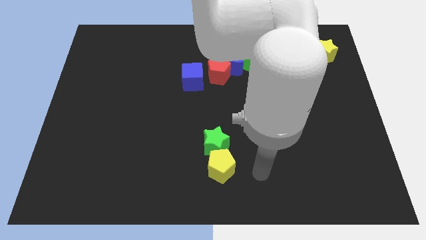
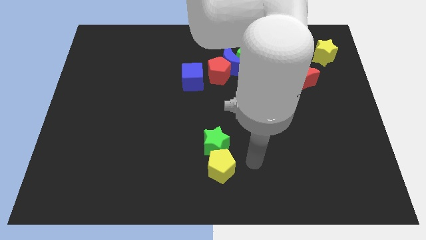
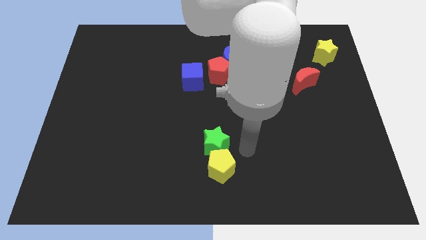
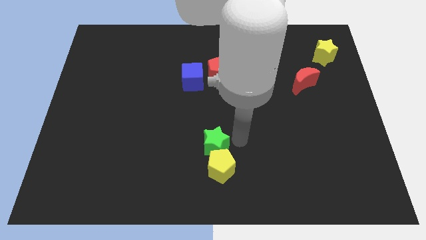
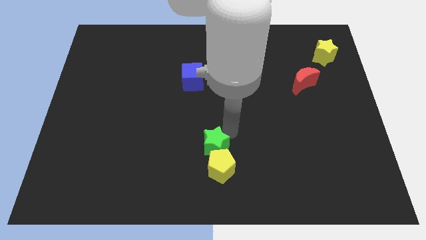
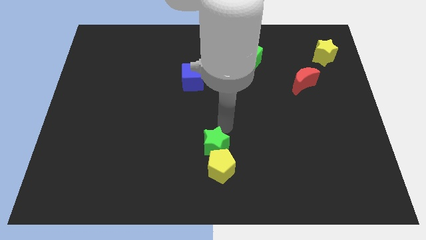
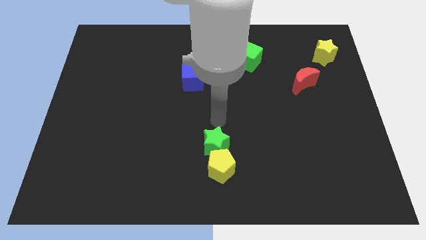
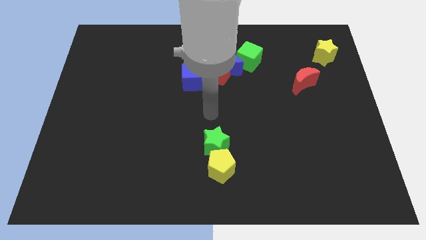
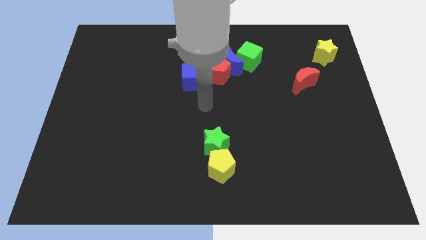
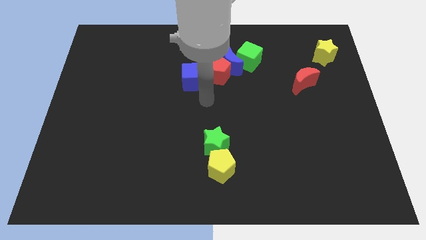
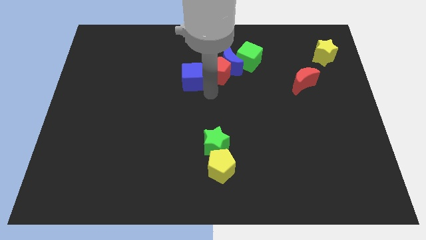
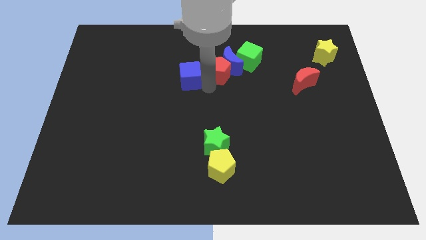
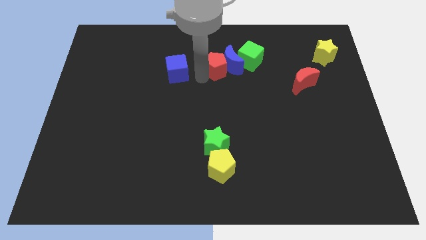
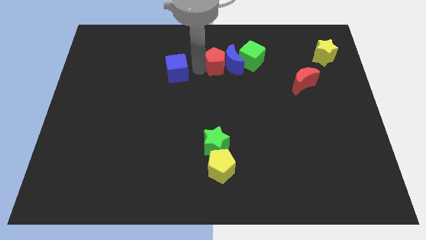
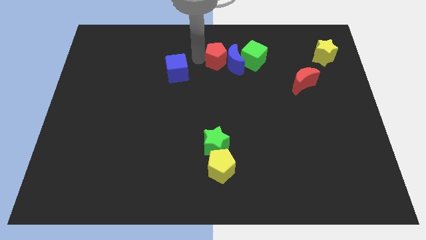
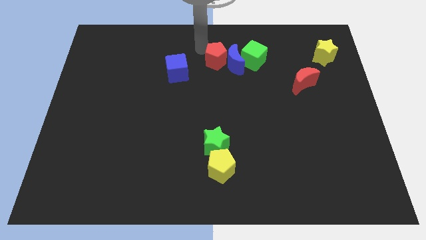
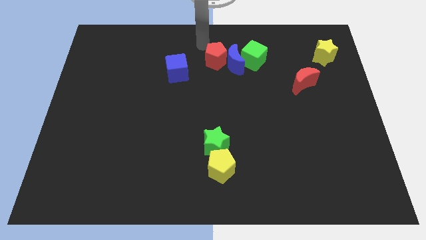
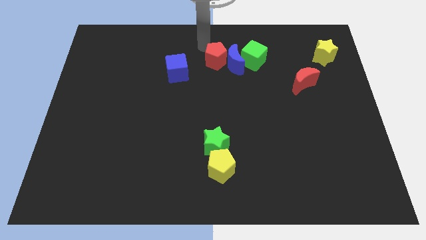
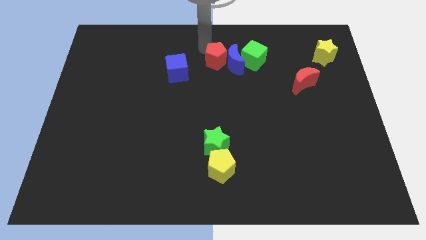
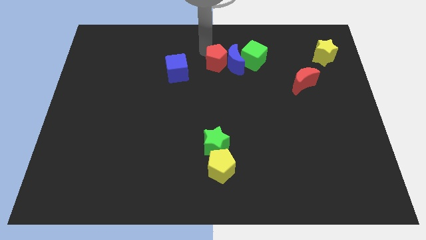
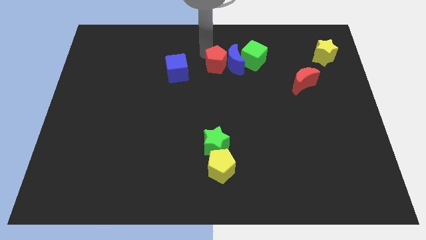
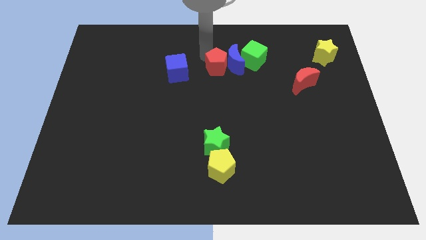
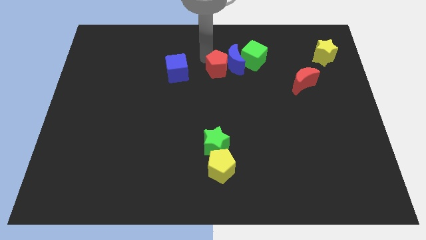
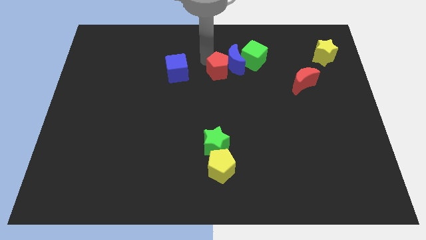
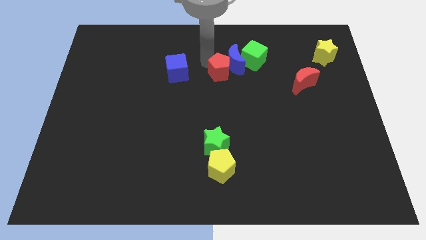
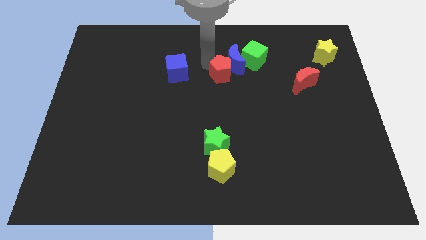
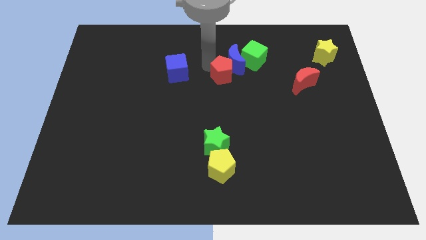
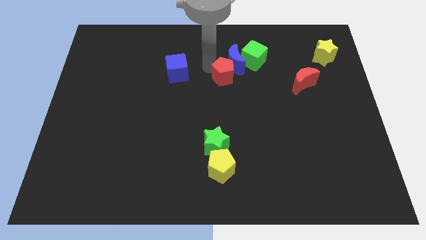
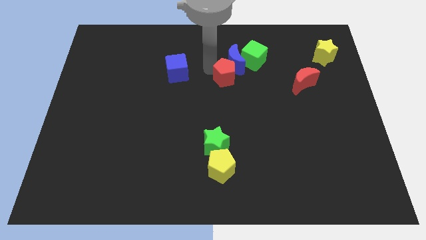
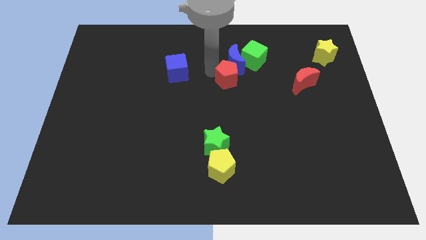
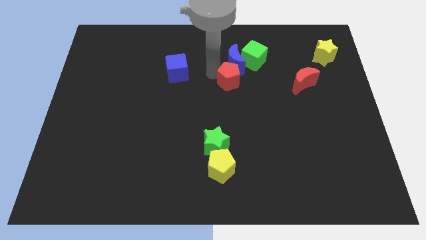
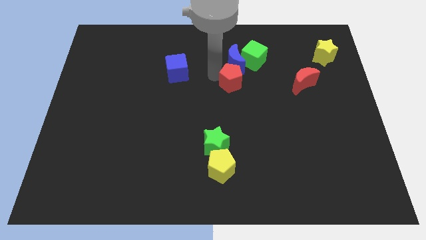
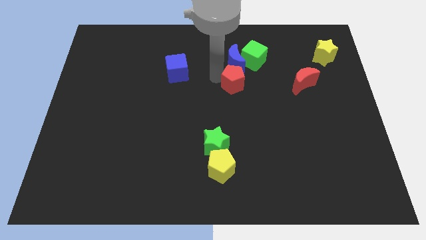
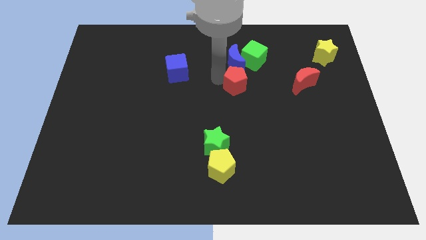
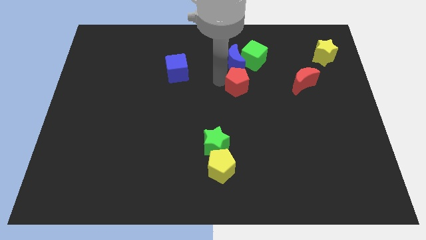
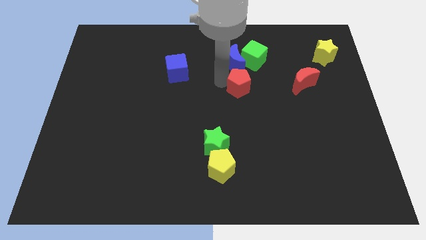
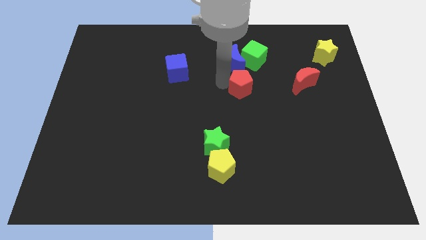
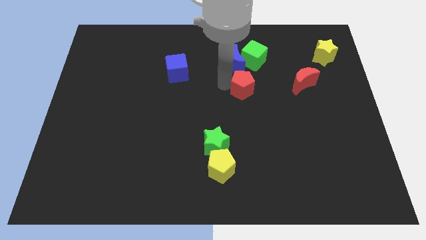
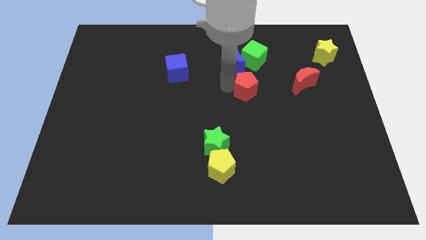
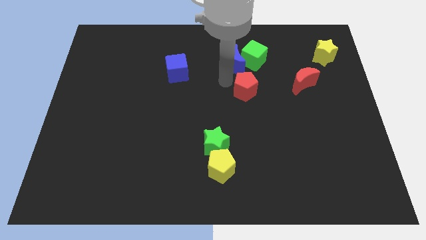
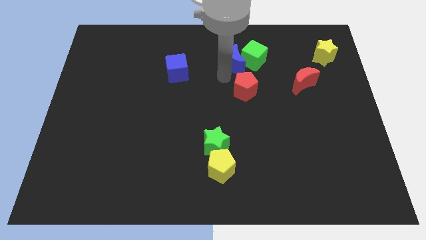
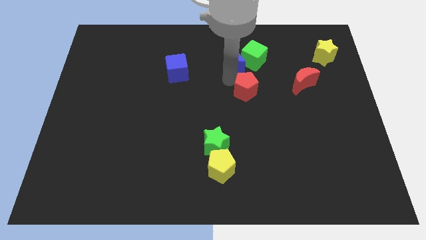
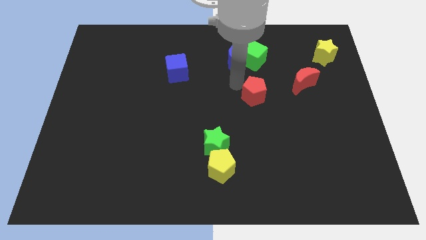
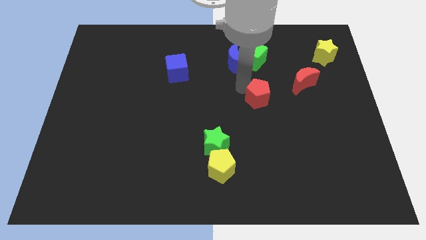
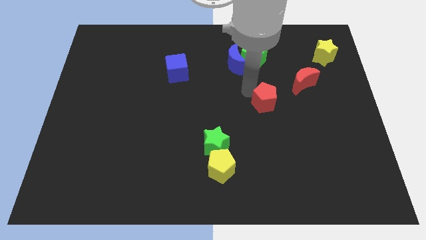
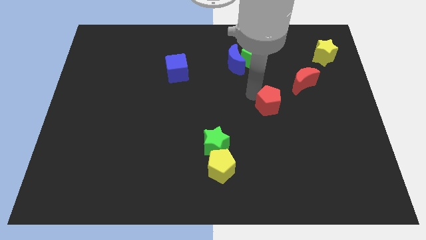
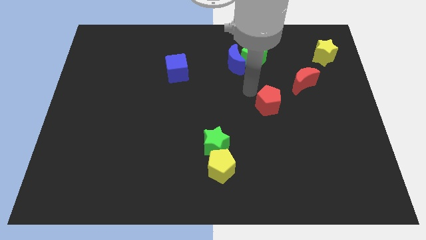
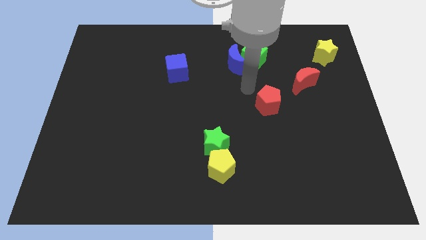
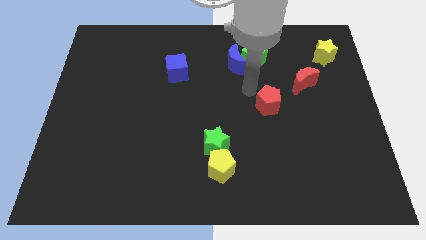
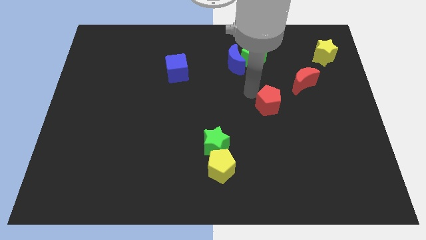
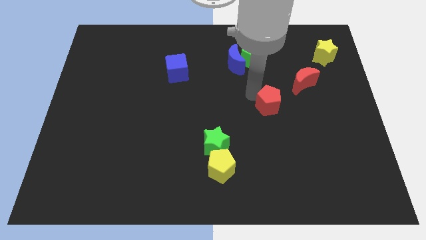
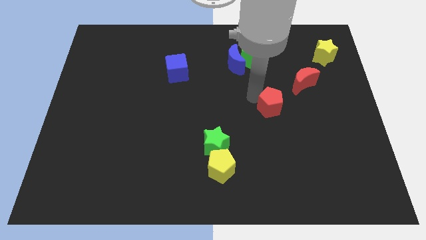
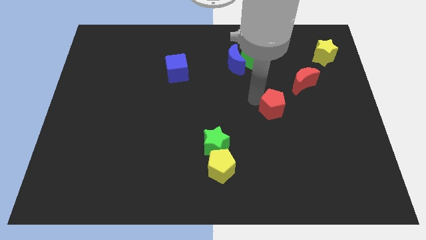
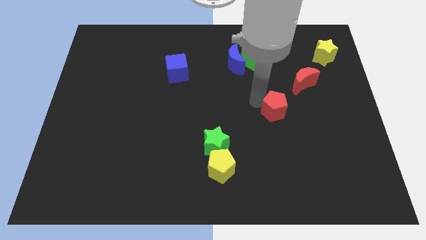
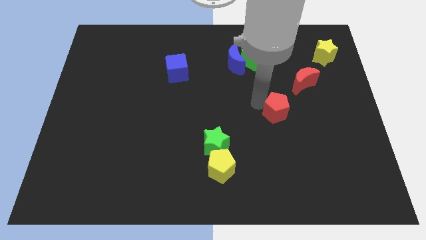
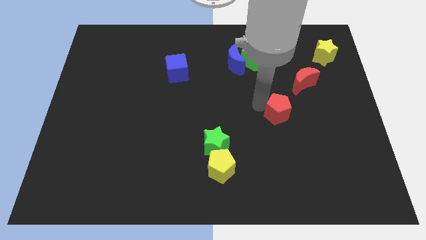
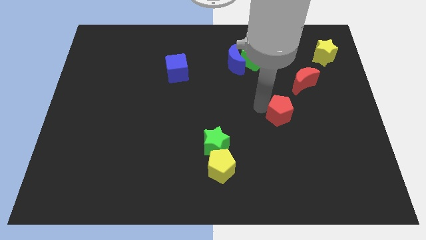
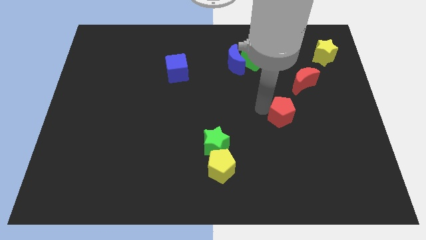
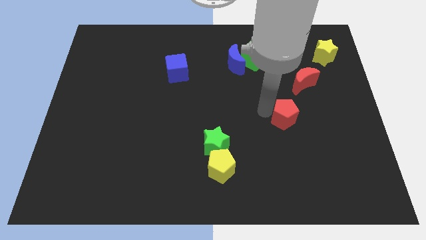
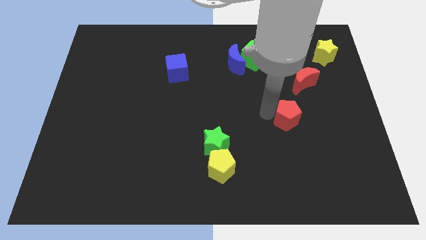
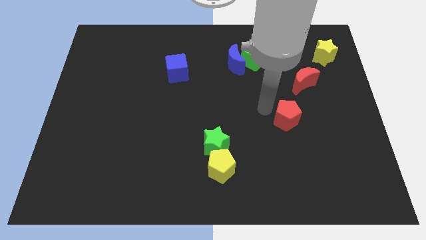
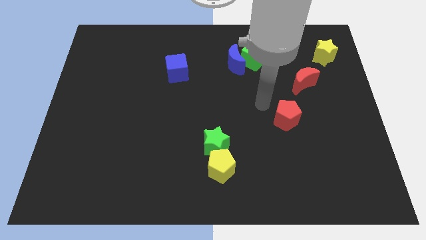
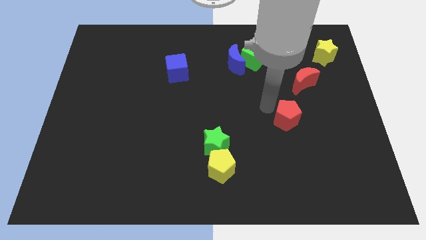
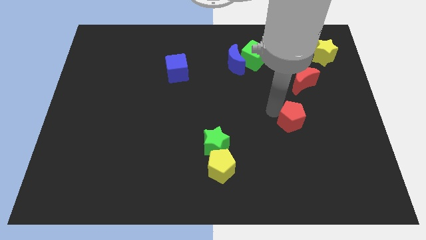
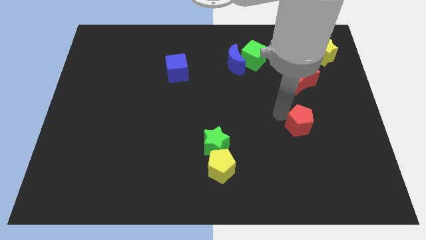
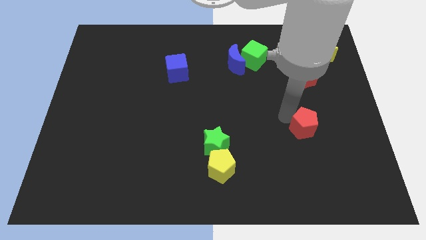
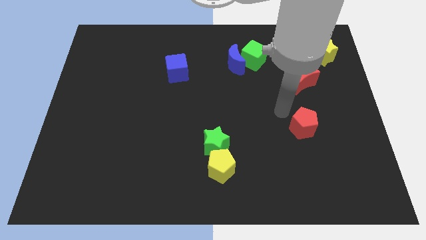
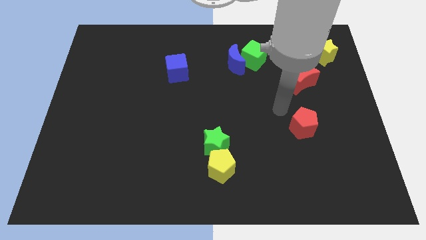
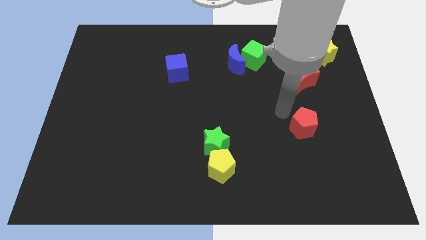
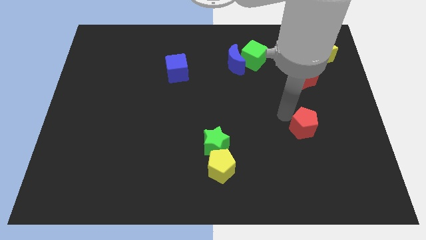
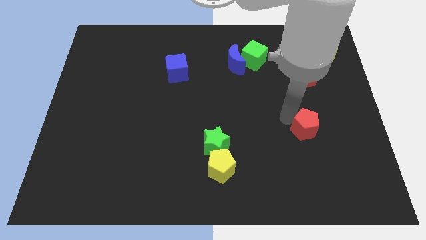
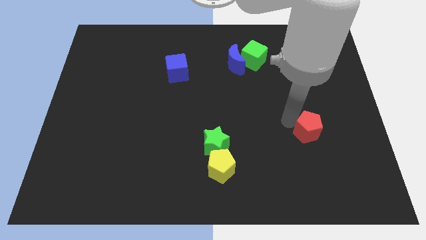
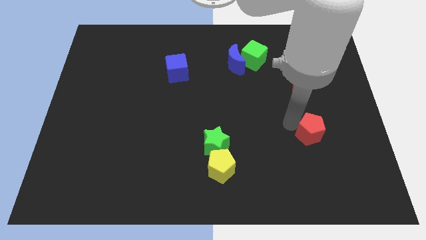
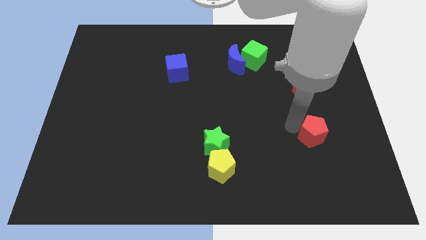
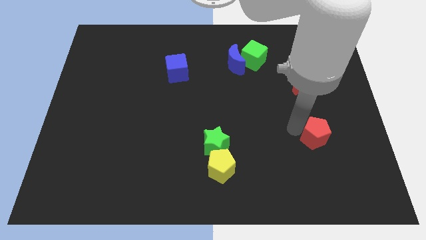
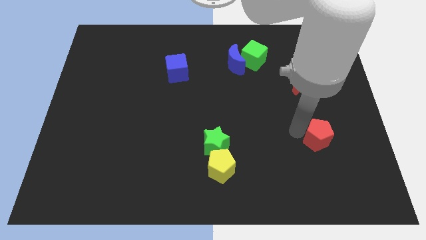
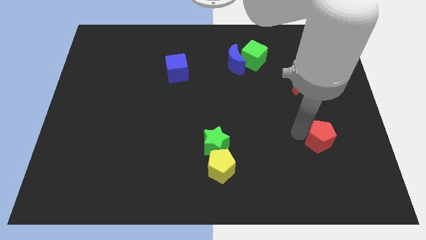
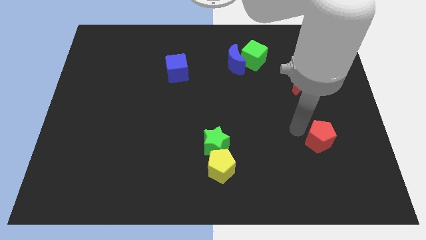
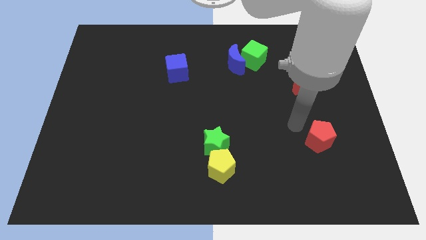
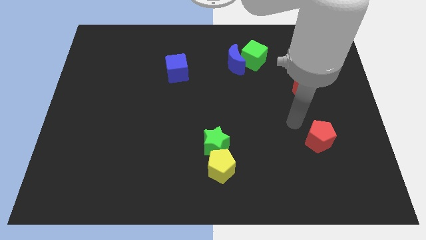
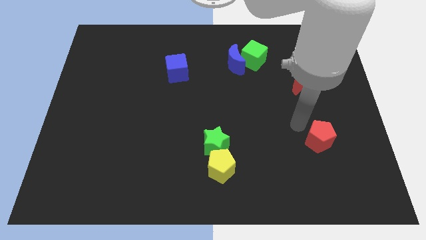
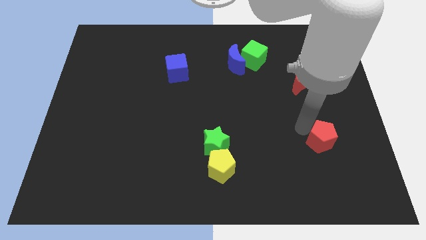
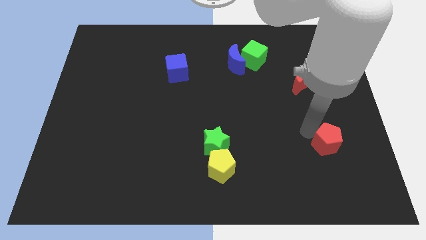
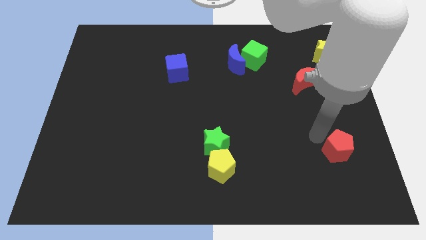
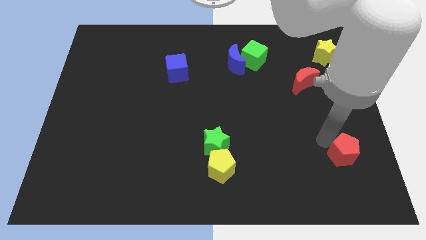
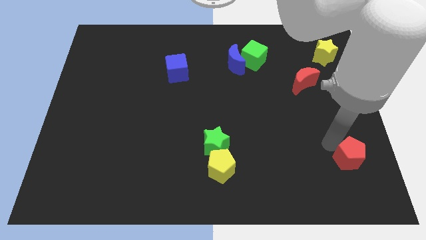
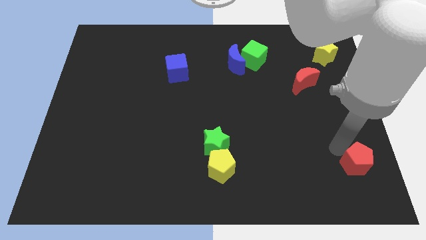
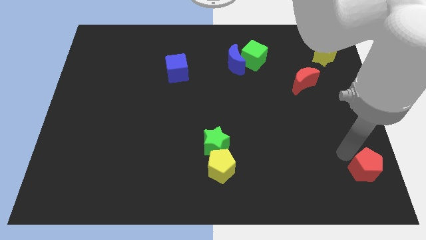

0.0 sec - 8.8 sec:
put the red pentagon to the bottom right corner
